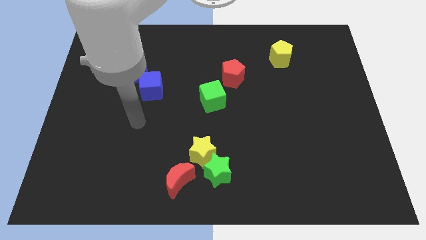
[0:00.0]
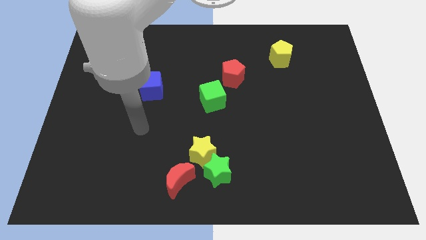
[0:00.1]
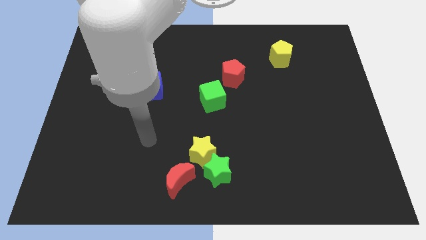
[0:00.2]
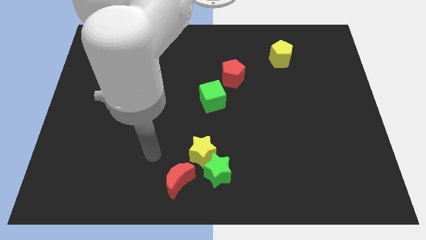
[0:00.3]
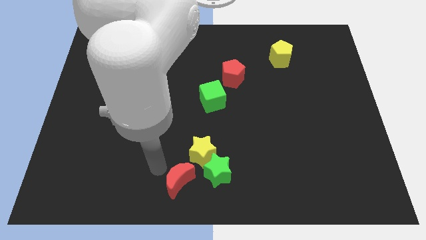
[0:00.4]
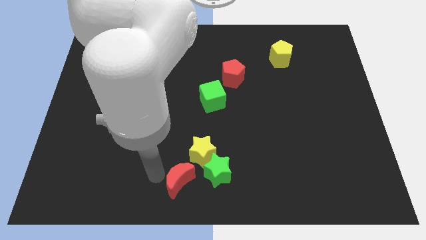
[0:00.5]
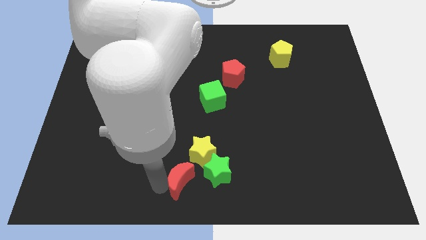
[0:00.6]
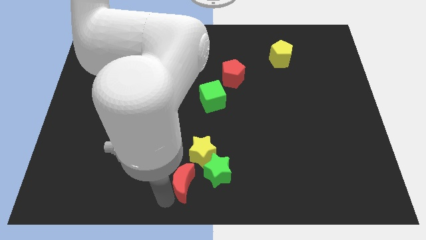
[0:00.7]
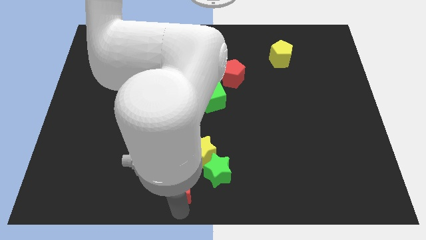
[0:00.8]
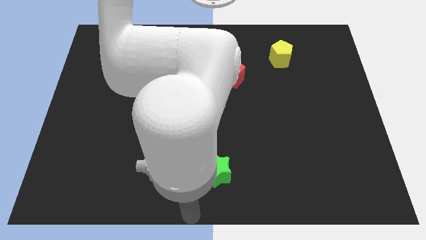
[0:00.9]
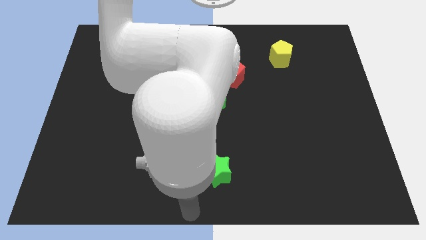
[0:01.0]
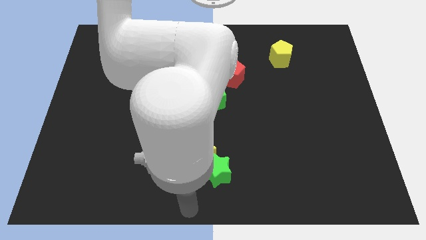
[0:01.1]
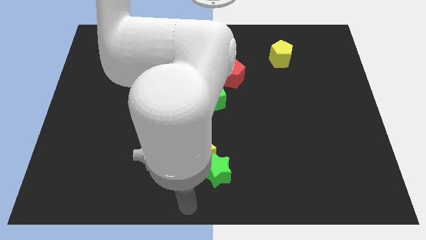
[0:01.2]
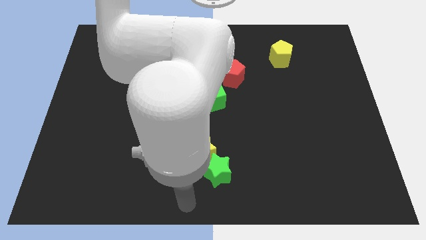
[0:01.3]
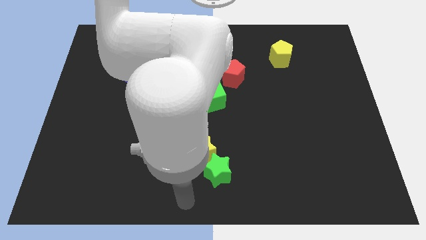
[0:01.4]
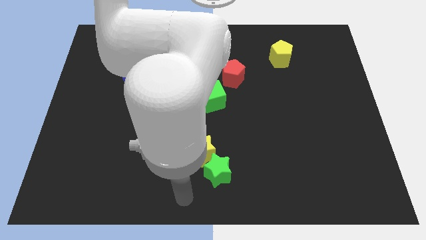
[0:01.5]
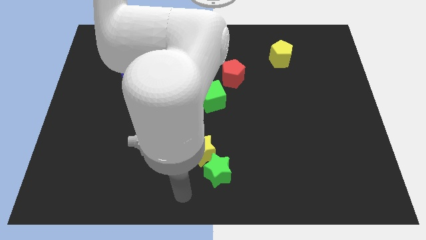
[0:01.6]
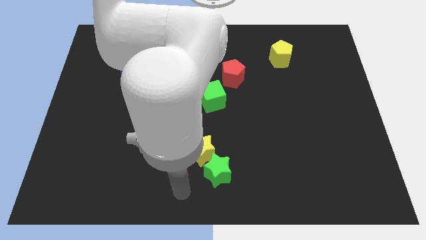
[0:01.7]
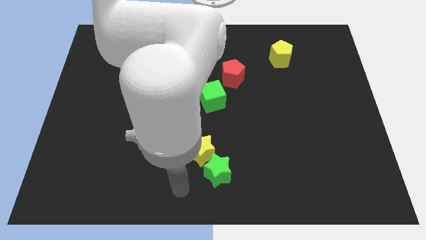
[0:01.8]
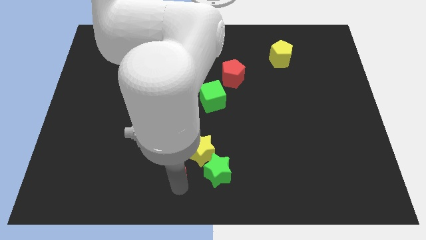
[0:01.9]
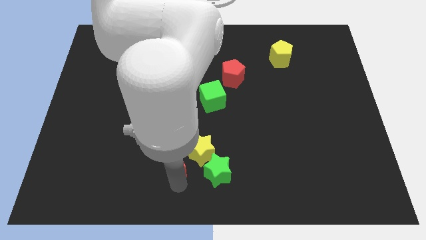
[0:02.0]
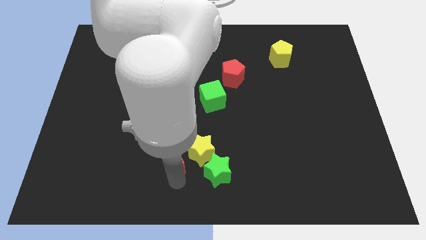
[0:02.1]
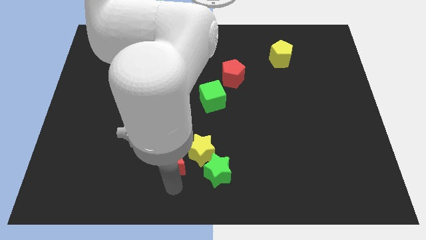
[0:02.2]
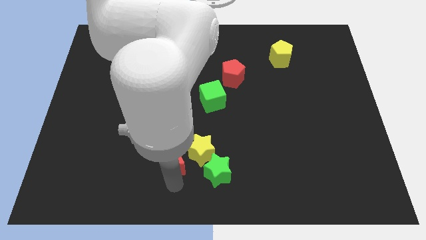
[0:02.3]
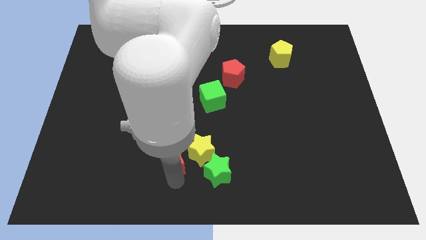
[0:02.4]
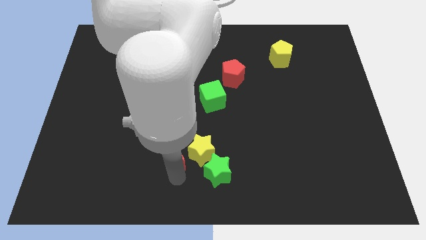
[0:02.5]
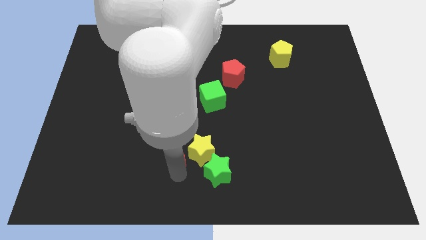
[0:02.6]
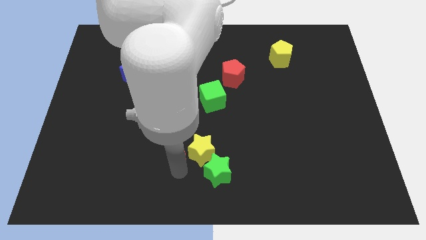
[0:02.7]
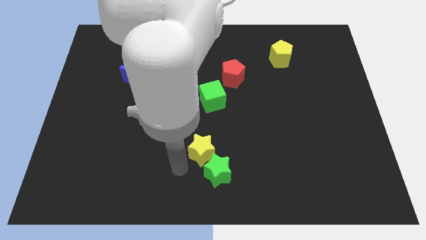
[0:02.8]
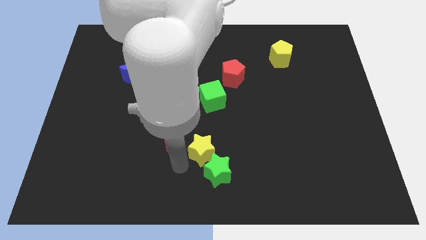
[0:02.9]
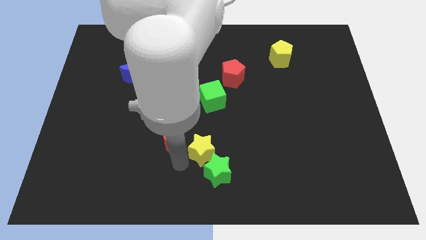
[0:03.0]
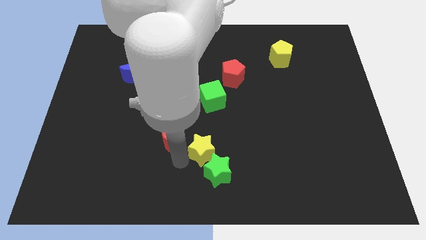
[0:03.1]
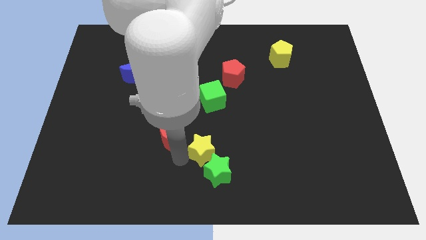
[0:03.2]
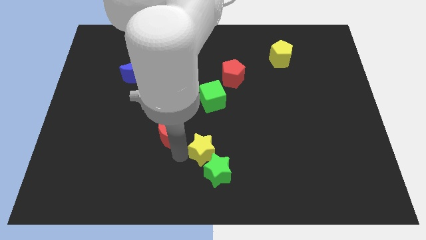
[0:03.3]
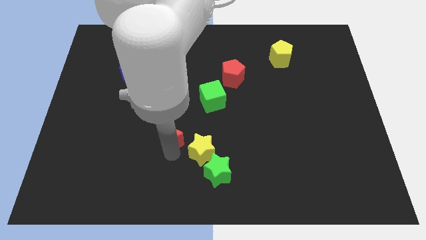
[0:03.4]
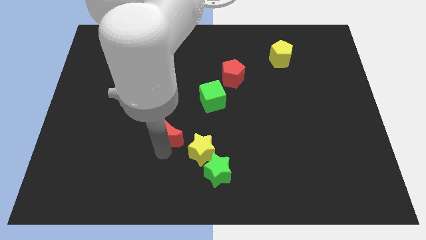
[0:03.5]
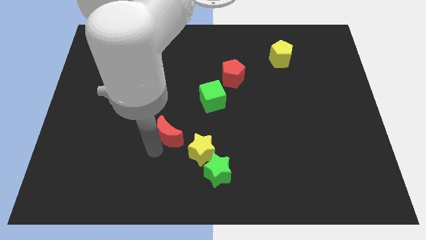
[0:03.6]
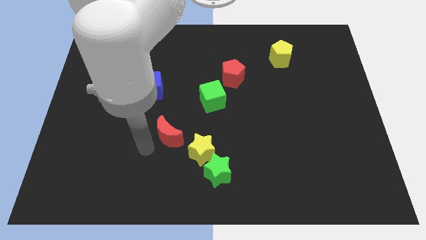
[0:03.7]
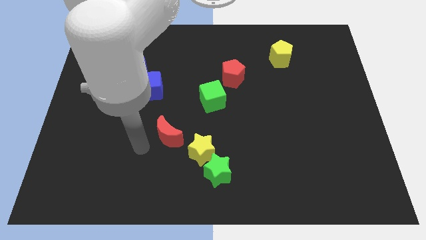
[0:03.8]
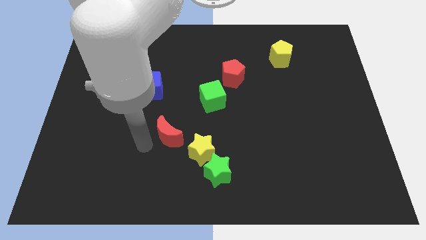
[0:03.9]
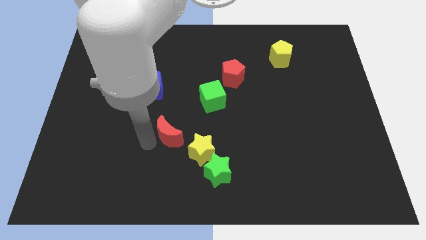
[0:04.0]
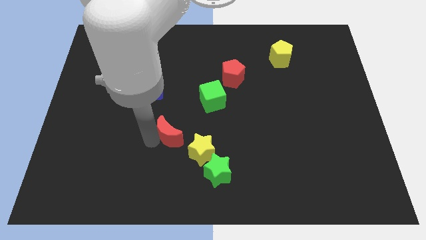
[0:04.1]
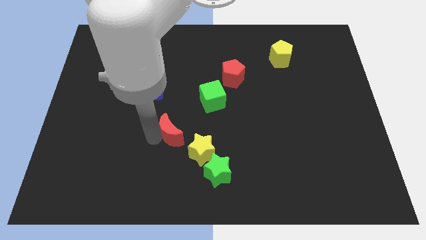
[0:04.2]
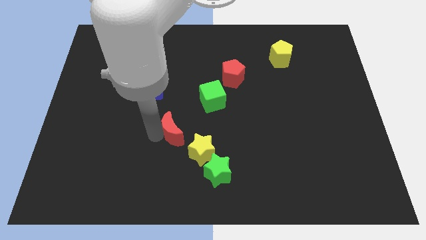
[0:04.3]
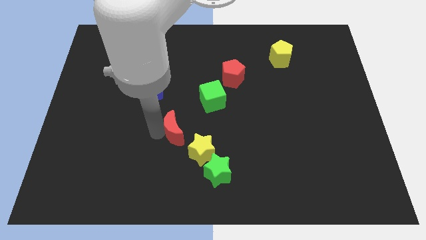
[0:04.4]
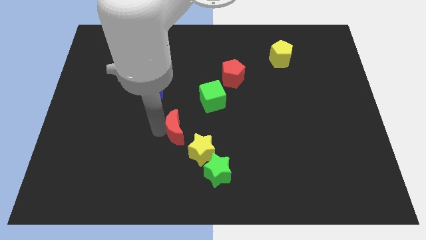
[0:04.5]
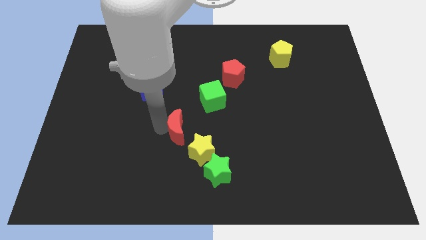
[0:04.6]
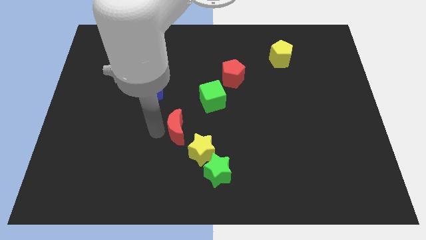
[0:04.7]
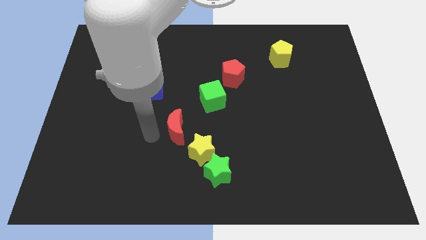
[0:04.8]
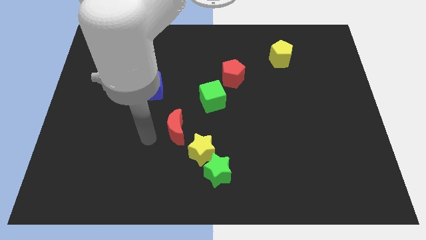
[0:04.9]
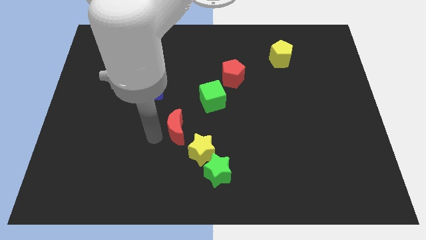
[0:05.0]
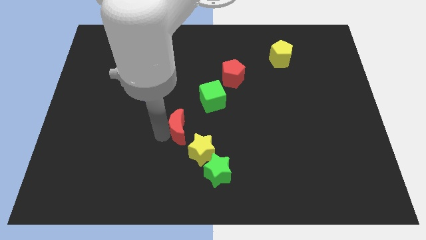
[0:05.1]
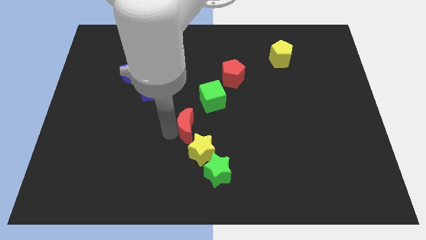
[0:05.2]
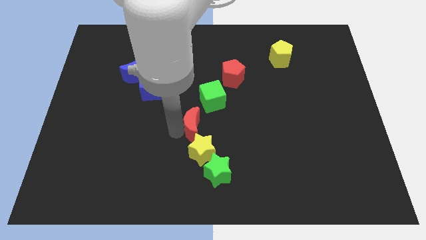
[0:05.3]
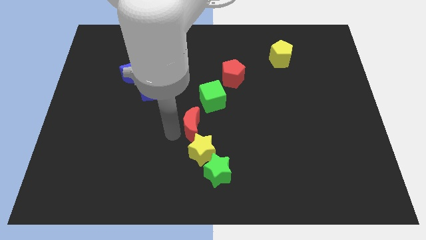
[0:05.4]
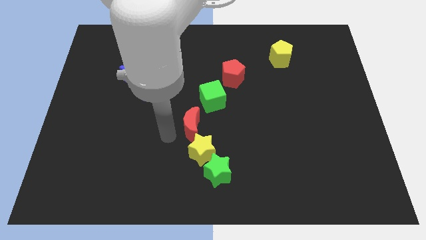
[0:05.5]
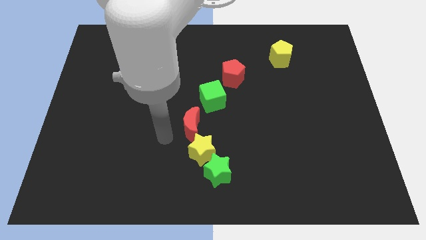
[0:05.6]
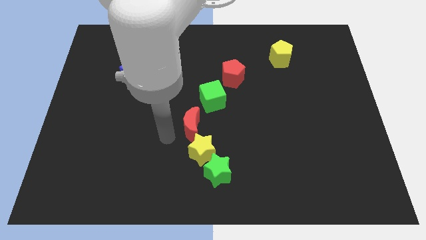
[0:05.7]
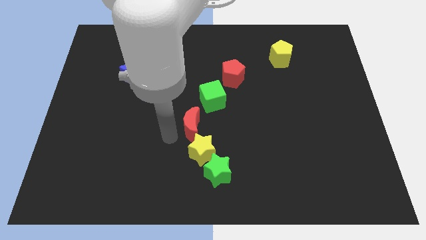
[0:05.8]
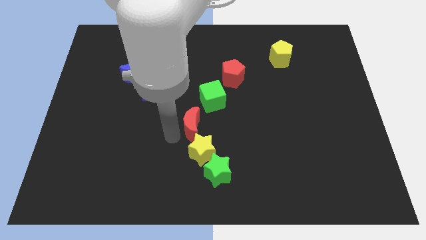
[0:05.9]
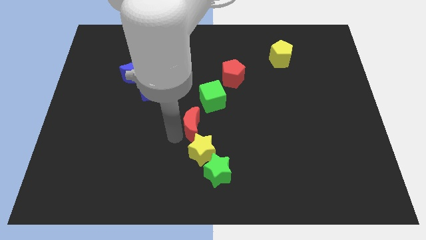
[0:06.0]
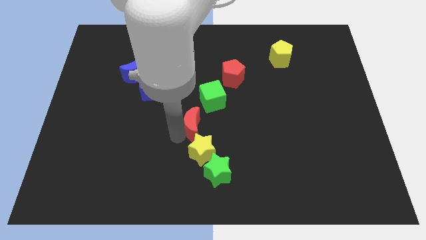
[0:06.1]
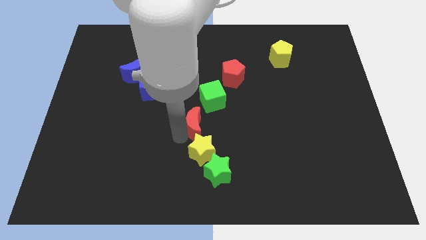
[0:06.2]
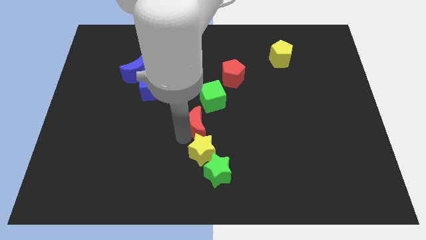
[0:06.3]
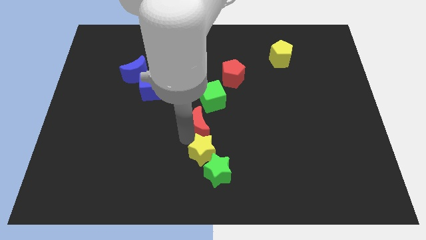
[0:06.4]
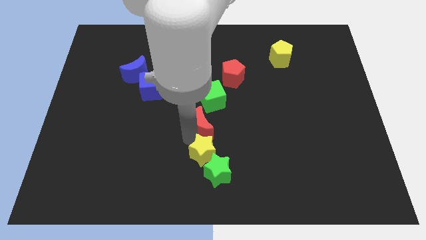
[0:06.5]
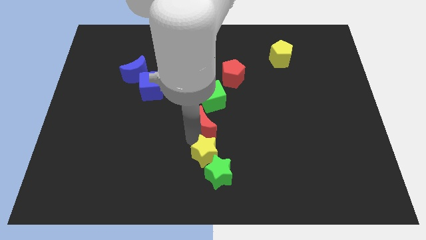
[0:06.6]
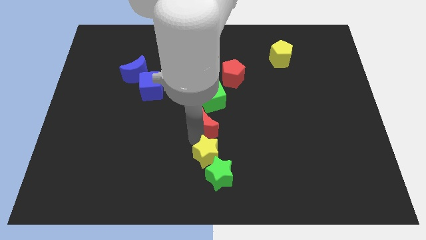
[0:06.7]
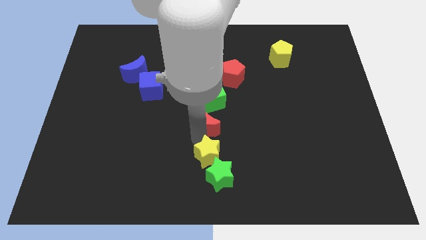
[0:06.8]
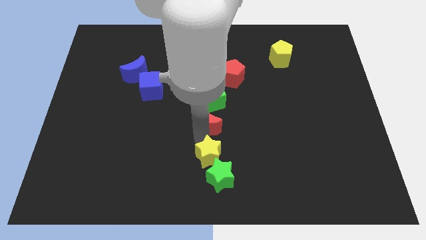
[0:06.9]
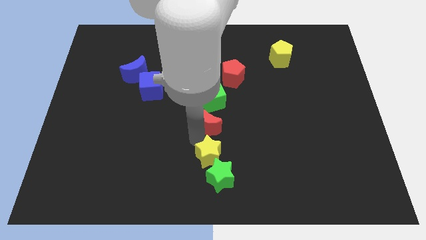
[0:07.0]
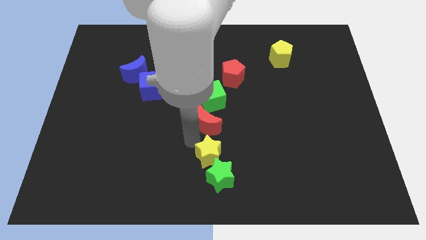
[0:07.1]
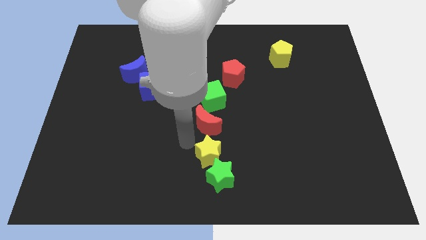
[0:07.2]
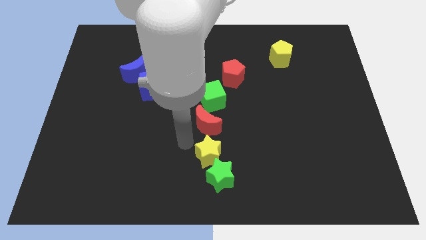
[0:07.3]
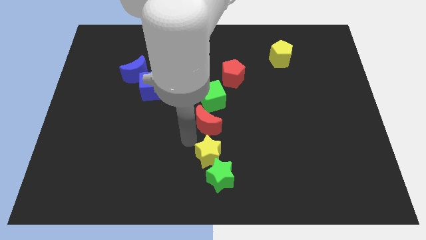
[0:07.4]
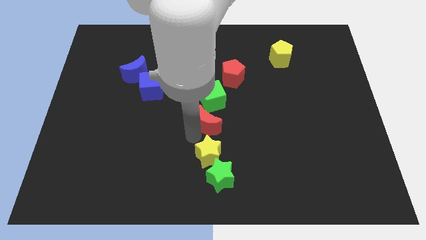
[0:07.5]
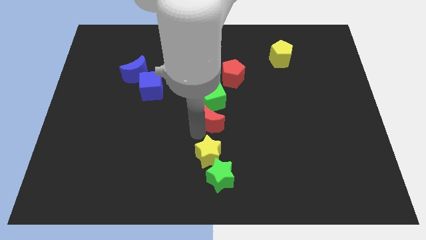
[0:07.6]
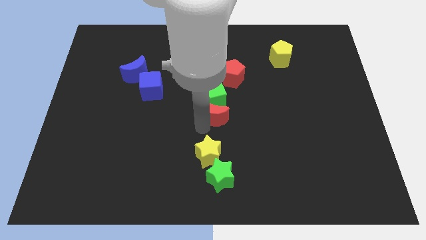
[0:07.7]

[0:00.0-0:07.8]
slide the red moon to the bottom of the red pentagon
